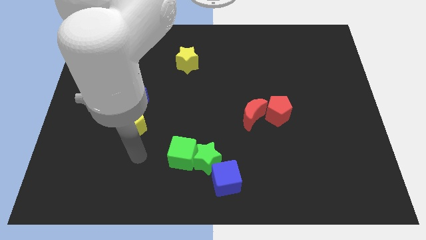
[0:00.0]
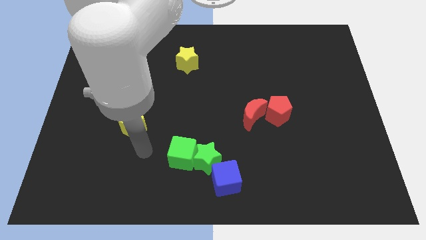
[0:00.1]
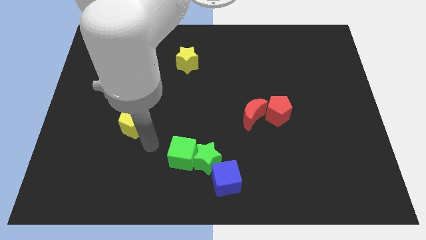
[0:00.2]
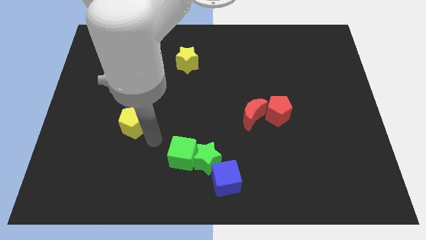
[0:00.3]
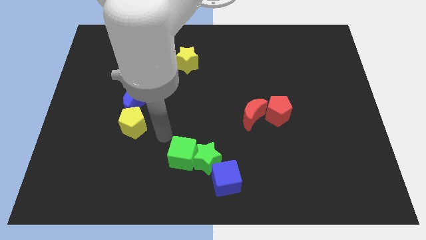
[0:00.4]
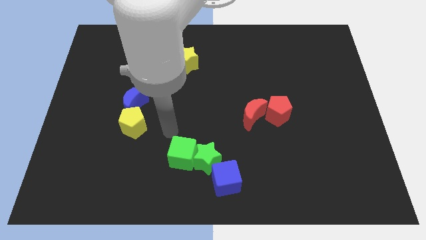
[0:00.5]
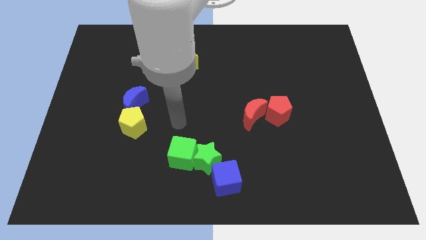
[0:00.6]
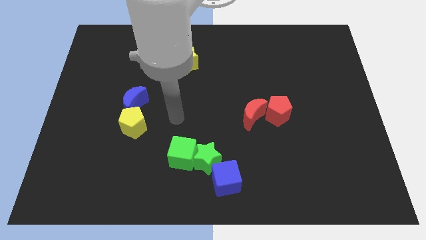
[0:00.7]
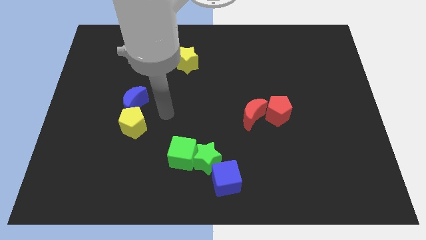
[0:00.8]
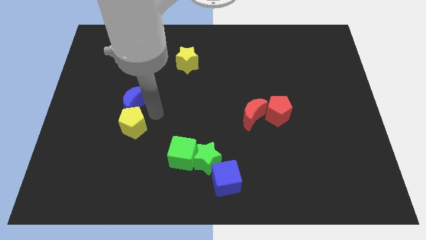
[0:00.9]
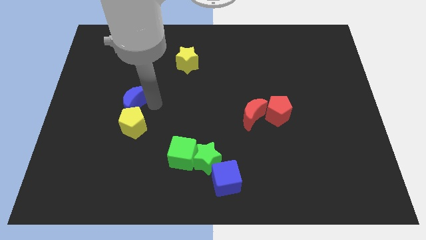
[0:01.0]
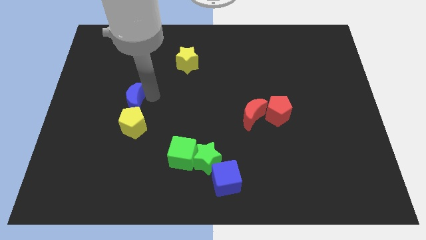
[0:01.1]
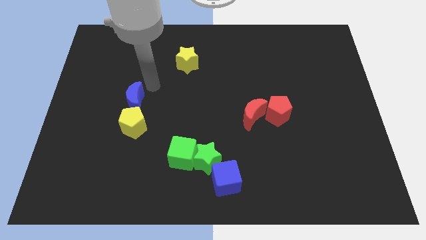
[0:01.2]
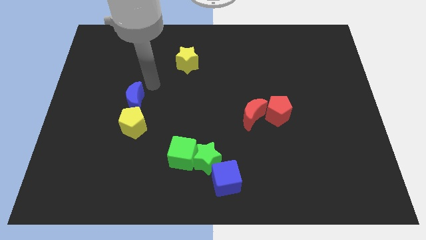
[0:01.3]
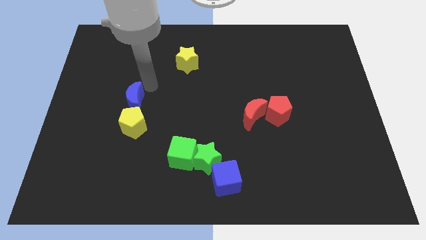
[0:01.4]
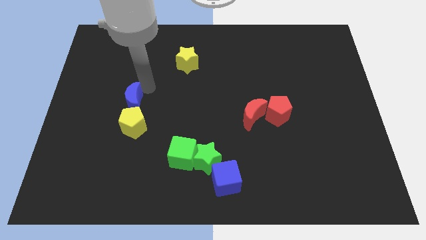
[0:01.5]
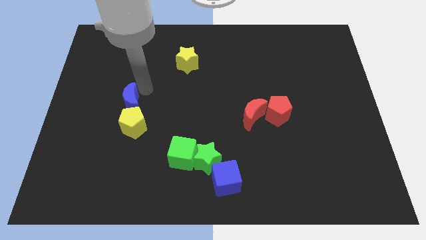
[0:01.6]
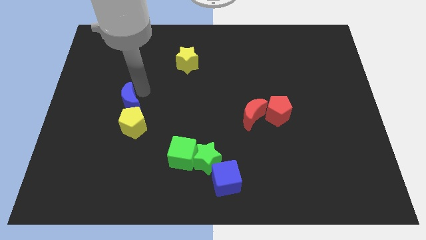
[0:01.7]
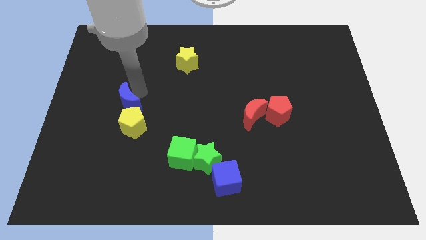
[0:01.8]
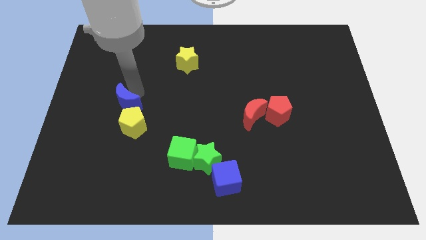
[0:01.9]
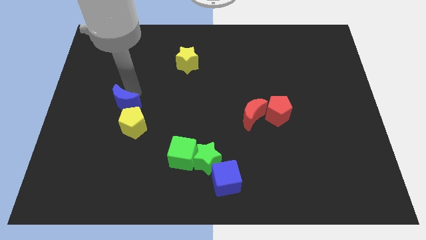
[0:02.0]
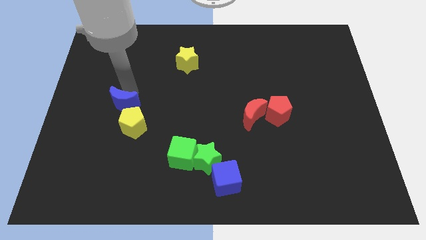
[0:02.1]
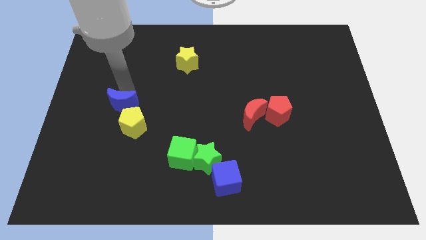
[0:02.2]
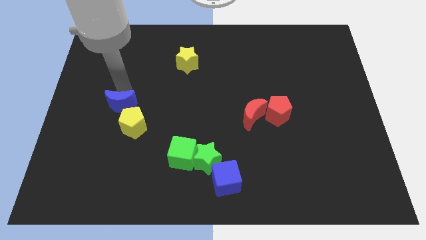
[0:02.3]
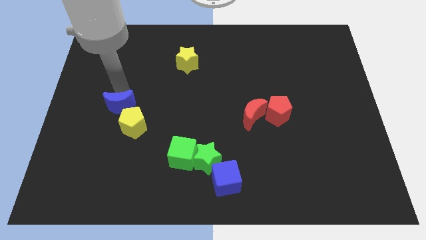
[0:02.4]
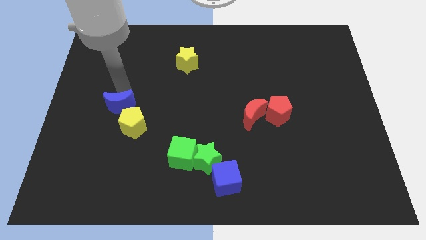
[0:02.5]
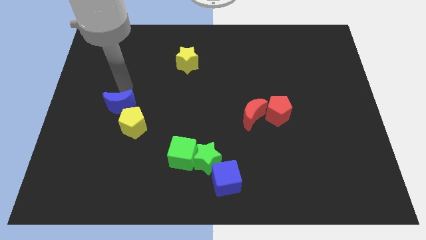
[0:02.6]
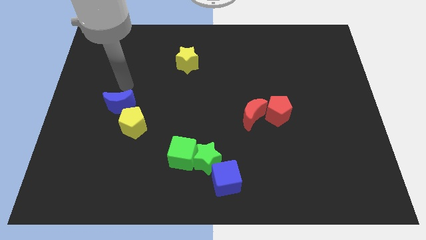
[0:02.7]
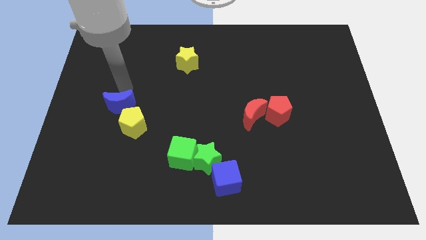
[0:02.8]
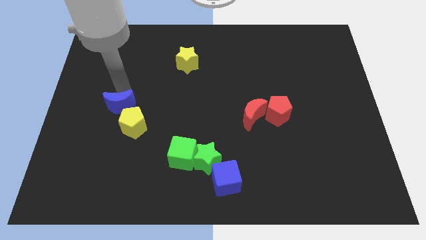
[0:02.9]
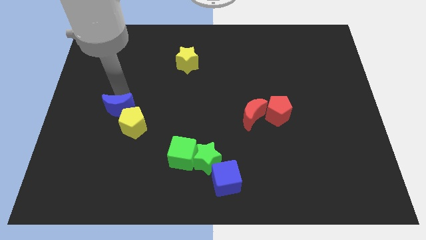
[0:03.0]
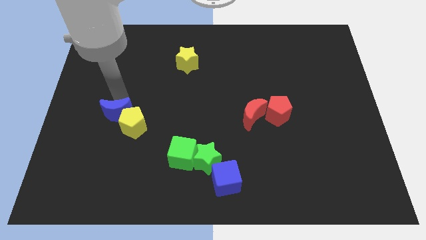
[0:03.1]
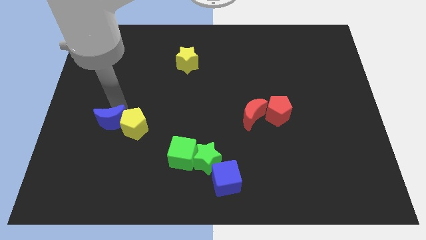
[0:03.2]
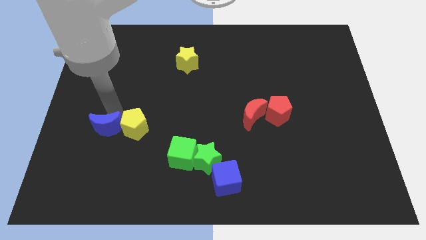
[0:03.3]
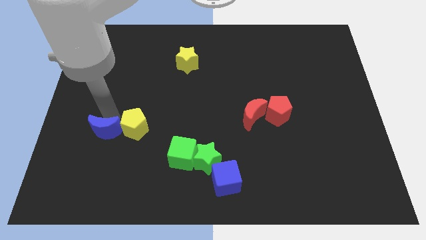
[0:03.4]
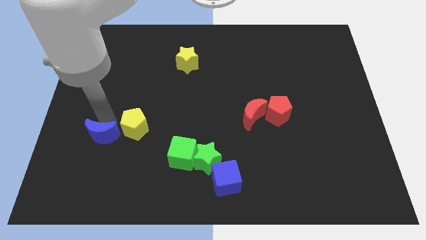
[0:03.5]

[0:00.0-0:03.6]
slightly push the blue moon downwards

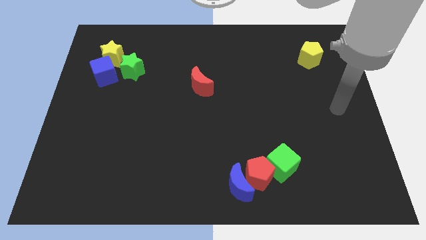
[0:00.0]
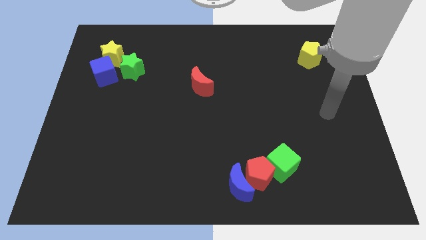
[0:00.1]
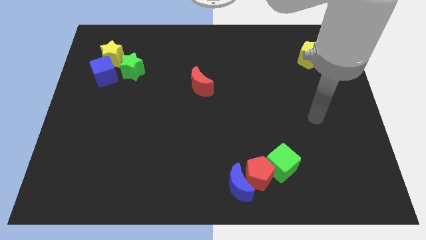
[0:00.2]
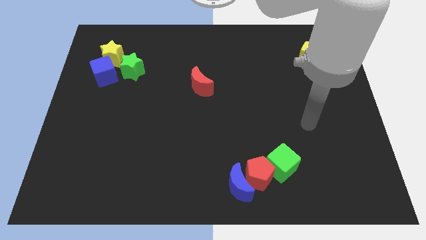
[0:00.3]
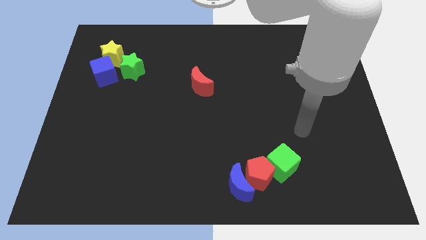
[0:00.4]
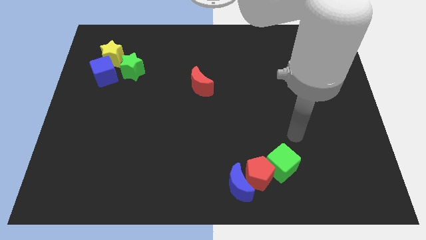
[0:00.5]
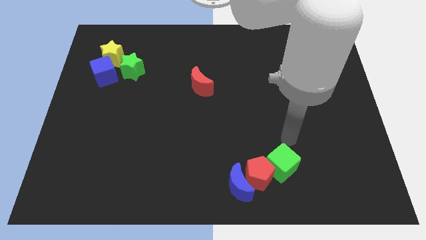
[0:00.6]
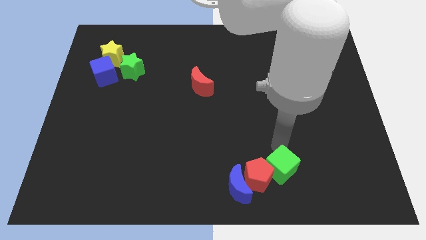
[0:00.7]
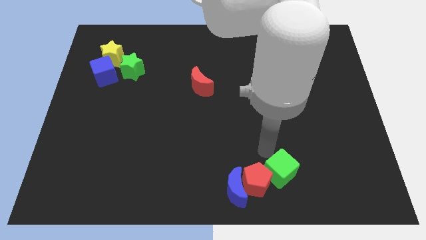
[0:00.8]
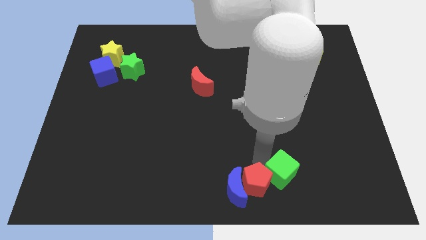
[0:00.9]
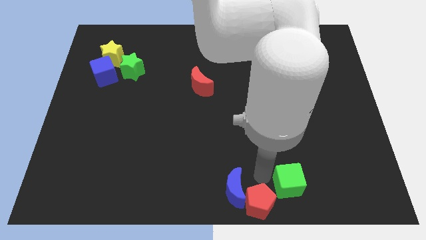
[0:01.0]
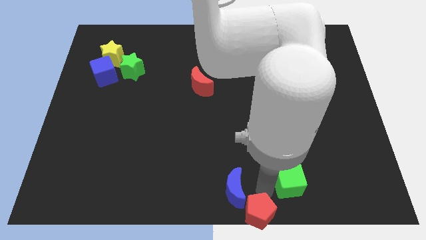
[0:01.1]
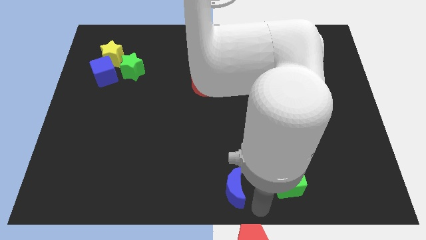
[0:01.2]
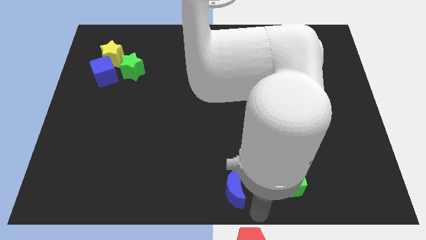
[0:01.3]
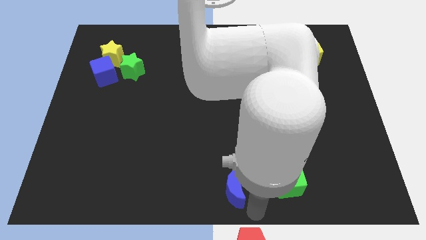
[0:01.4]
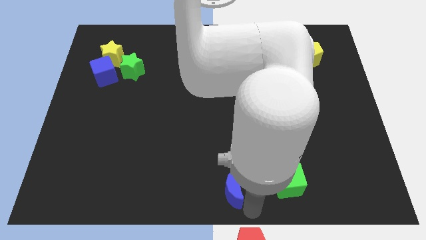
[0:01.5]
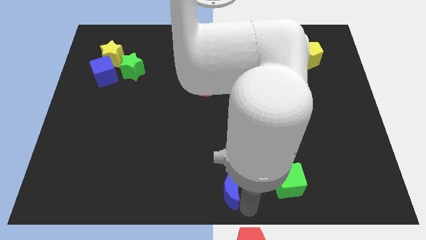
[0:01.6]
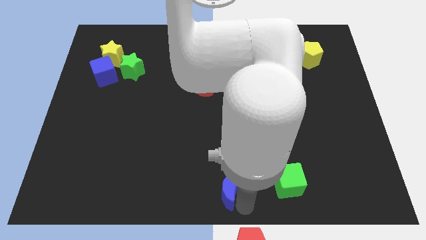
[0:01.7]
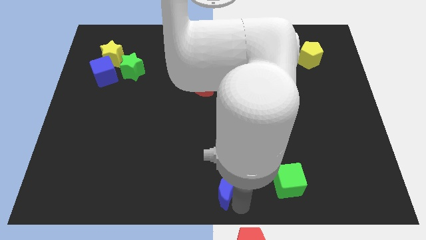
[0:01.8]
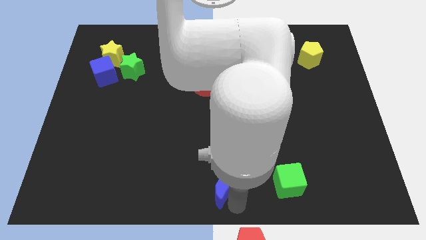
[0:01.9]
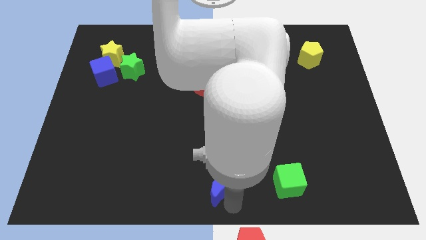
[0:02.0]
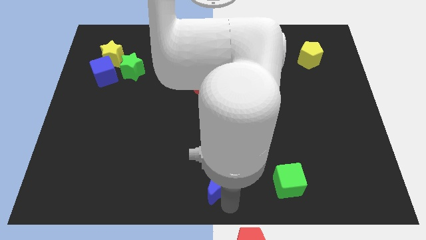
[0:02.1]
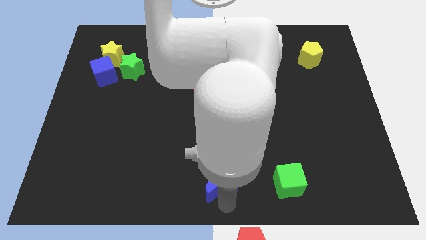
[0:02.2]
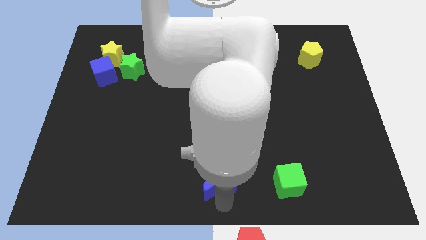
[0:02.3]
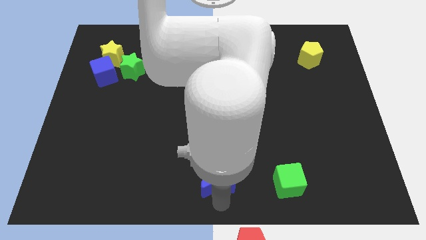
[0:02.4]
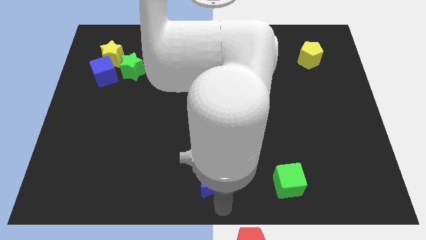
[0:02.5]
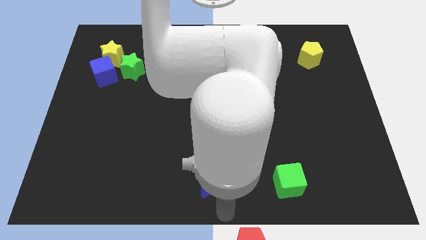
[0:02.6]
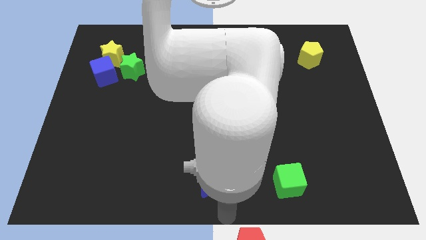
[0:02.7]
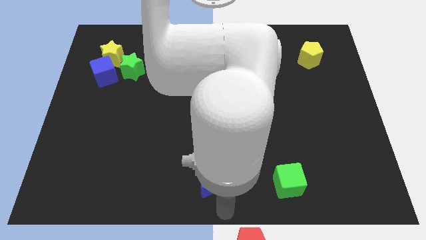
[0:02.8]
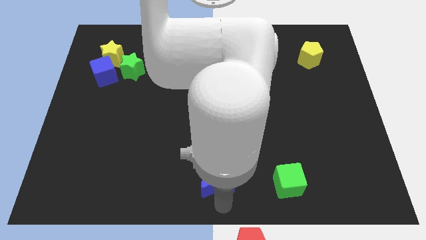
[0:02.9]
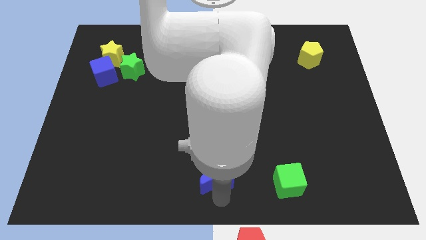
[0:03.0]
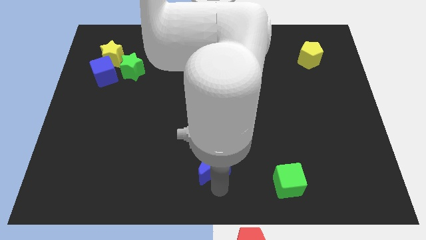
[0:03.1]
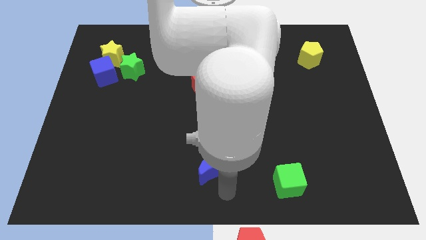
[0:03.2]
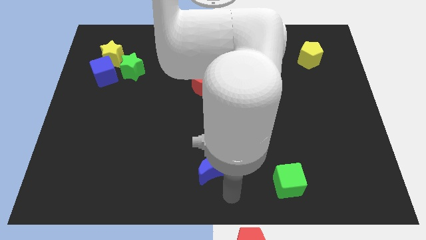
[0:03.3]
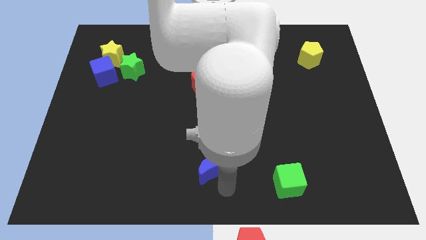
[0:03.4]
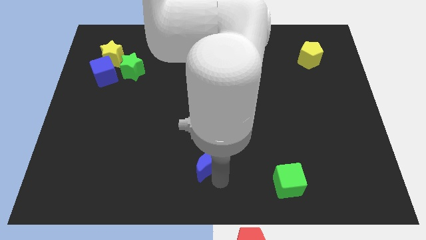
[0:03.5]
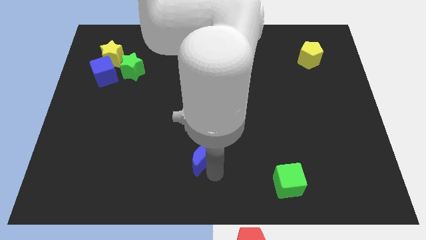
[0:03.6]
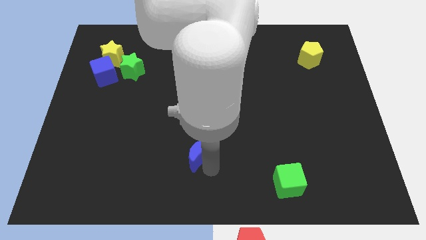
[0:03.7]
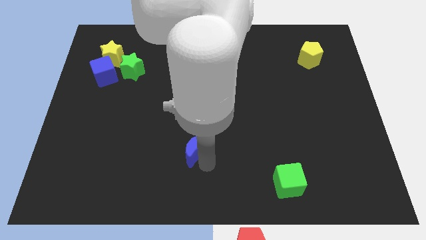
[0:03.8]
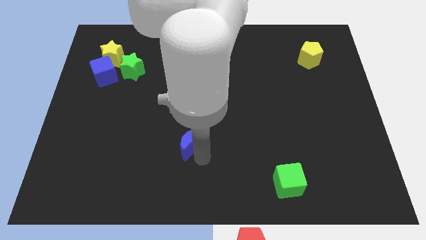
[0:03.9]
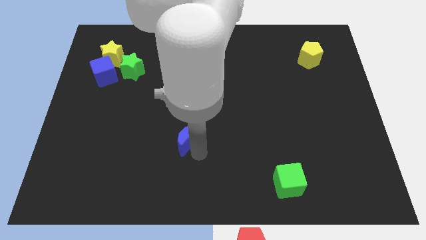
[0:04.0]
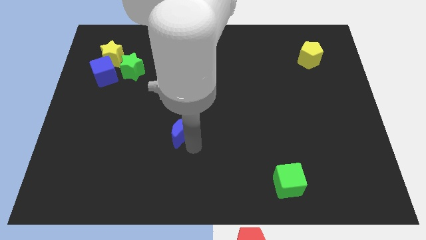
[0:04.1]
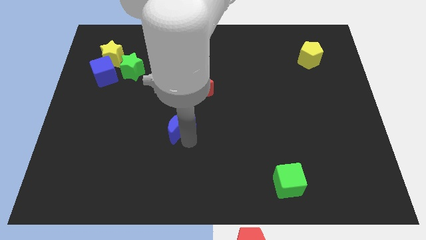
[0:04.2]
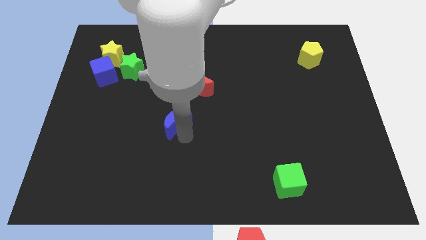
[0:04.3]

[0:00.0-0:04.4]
move the blue moon diagonally upwards and to the left

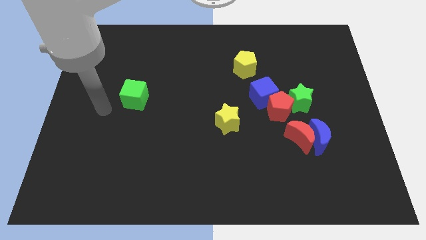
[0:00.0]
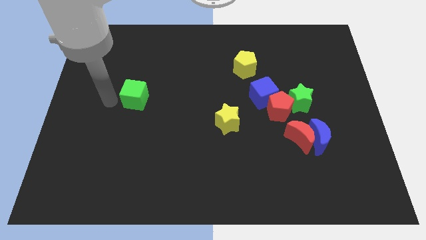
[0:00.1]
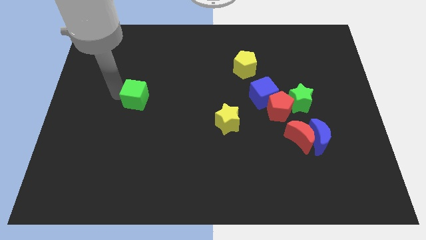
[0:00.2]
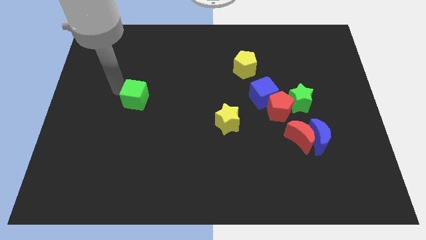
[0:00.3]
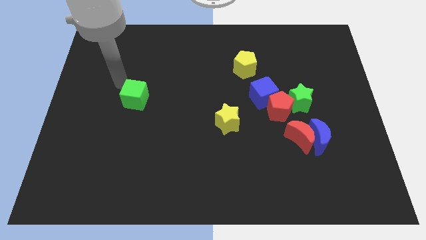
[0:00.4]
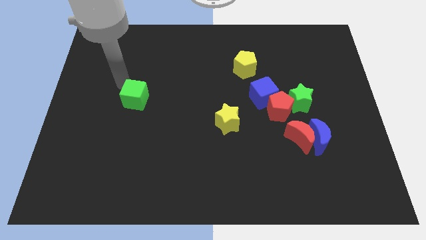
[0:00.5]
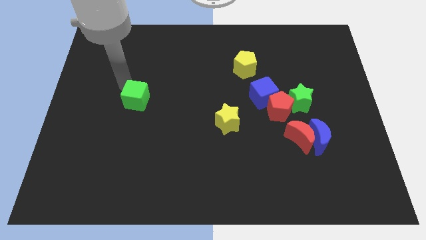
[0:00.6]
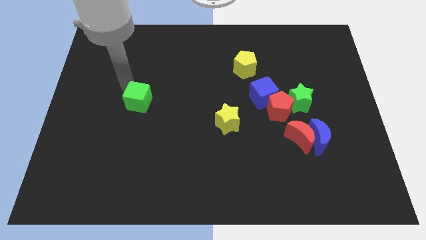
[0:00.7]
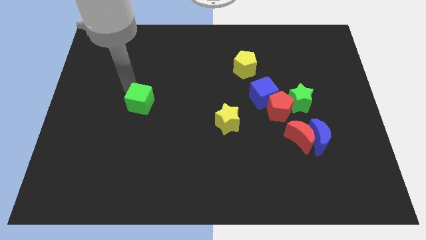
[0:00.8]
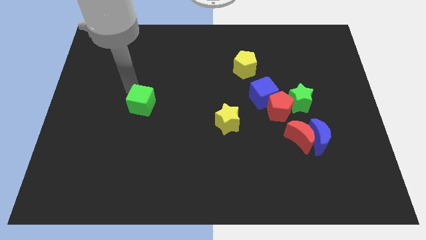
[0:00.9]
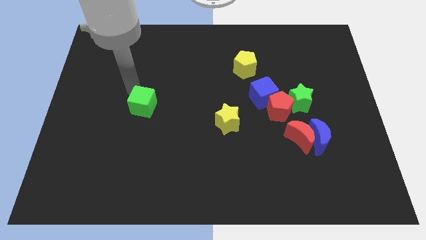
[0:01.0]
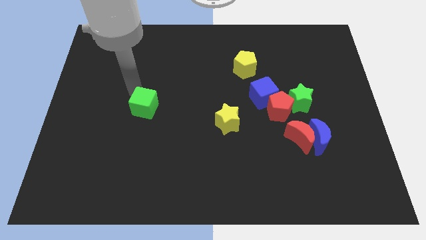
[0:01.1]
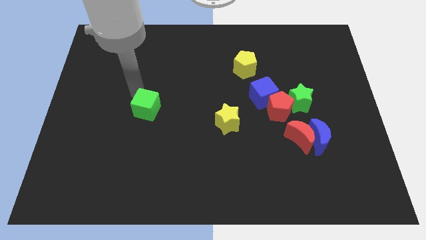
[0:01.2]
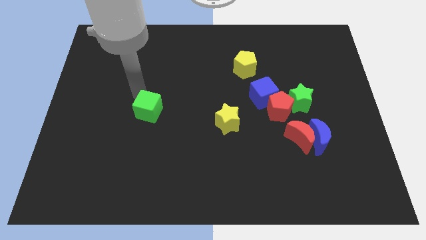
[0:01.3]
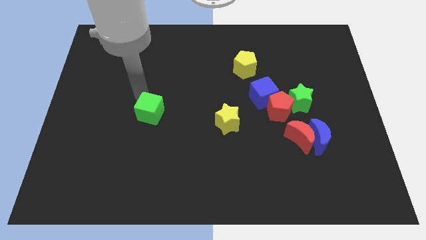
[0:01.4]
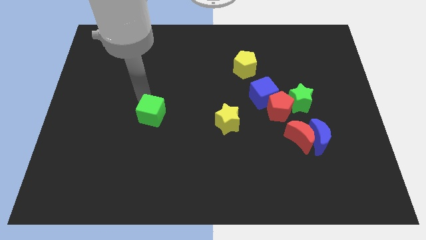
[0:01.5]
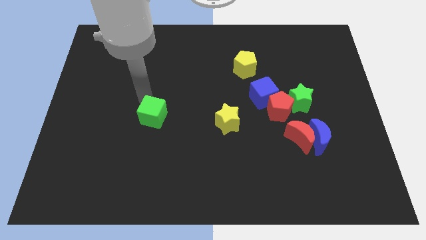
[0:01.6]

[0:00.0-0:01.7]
slightly push the green cube downwards and right
